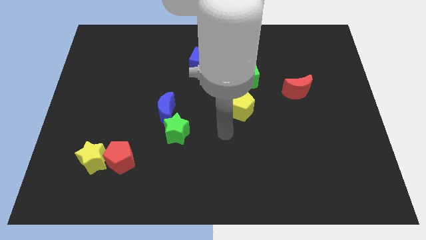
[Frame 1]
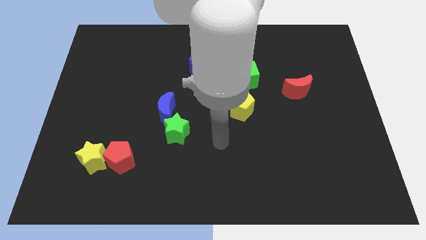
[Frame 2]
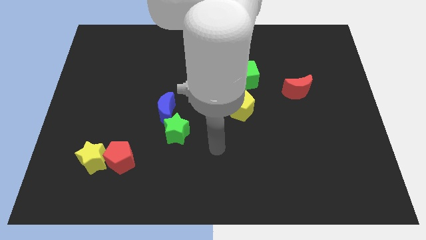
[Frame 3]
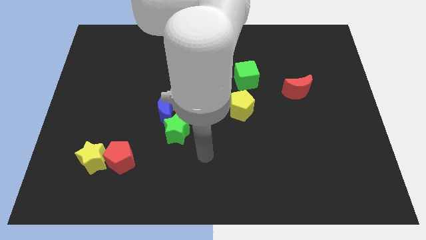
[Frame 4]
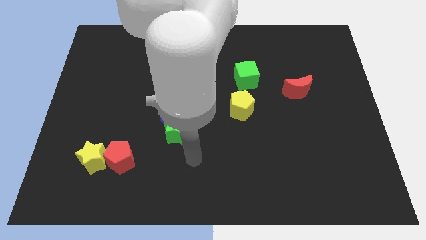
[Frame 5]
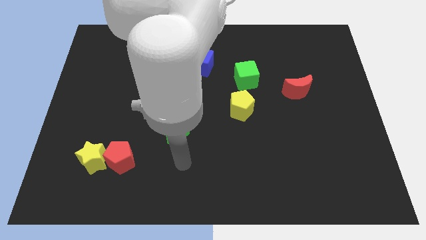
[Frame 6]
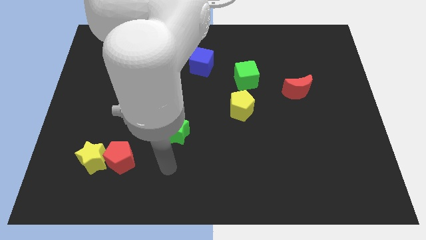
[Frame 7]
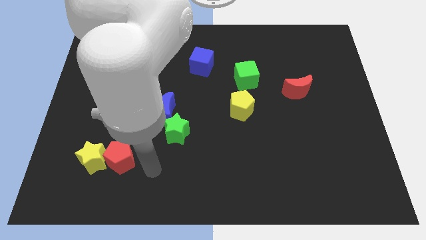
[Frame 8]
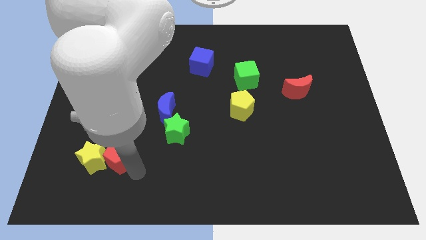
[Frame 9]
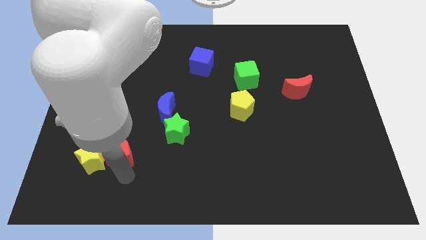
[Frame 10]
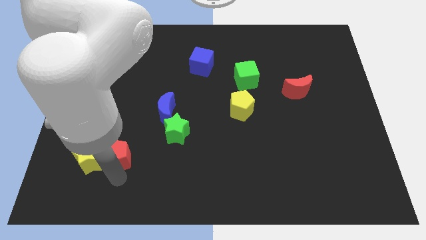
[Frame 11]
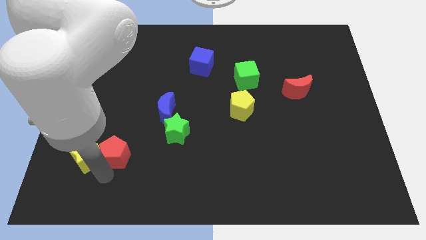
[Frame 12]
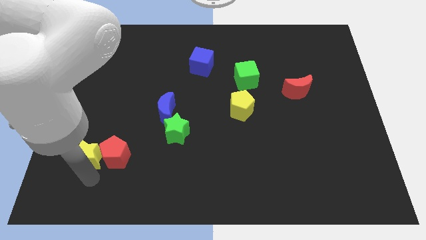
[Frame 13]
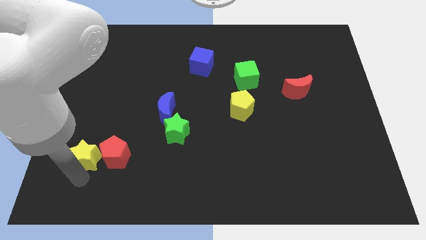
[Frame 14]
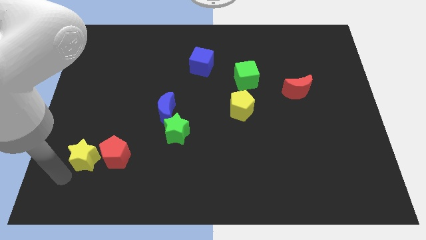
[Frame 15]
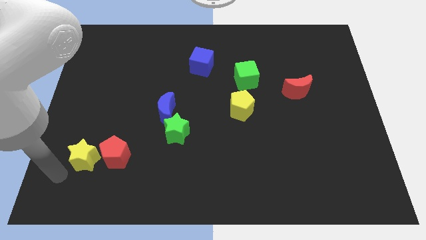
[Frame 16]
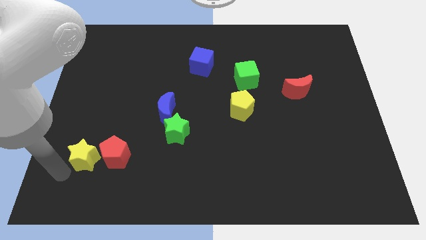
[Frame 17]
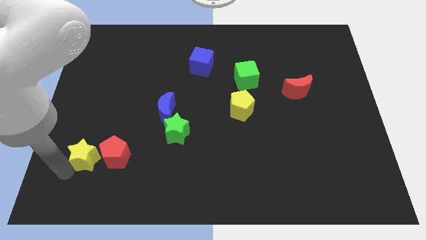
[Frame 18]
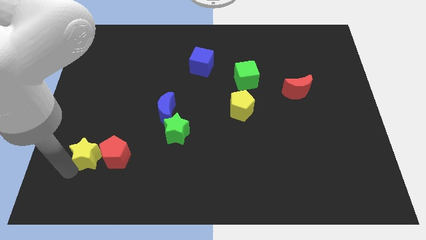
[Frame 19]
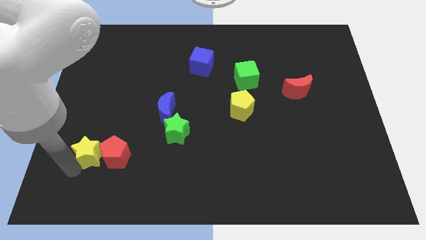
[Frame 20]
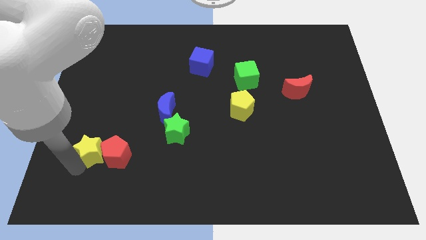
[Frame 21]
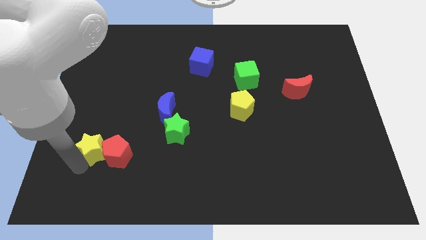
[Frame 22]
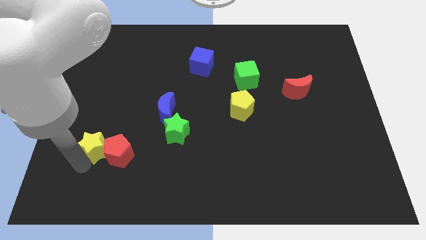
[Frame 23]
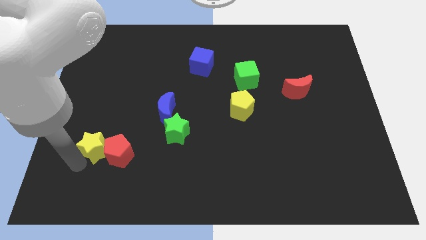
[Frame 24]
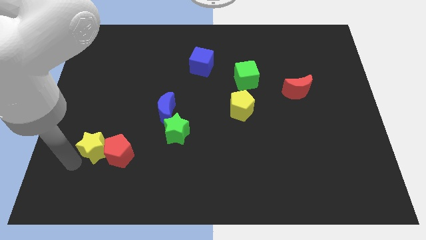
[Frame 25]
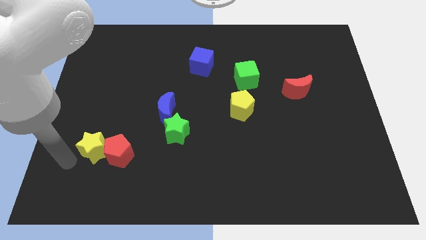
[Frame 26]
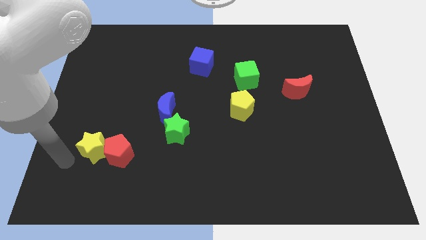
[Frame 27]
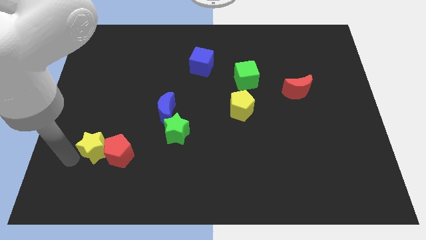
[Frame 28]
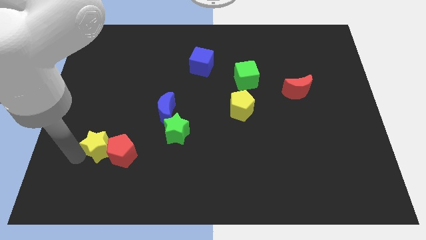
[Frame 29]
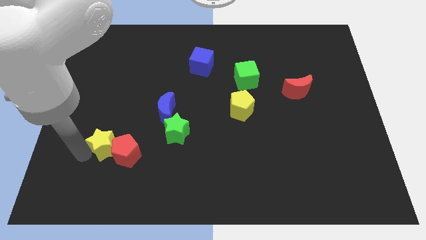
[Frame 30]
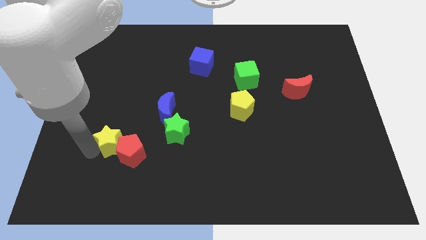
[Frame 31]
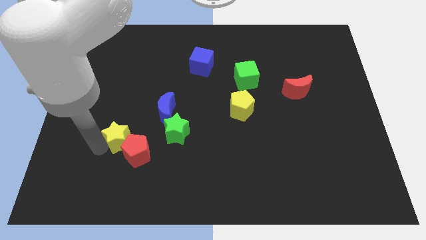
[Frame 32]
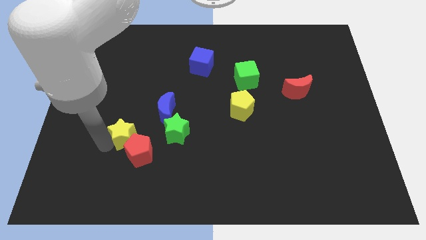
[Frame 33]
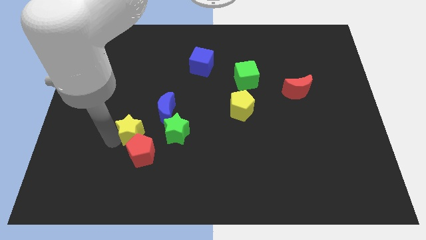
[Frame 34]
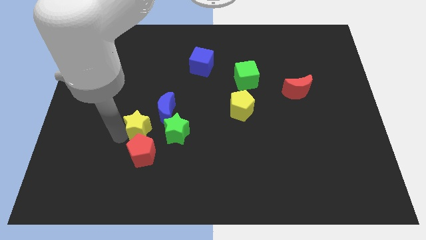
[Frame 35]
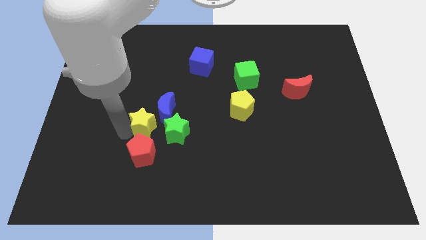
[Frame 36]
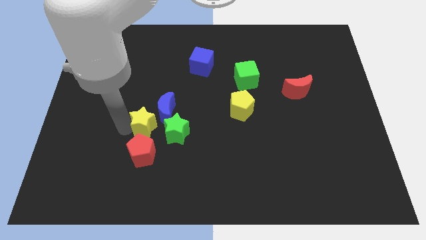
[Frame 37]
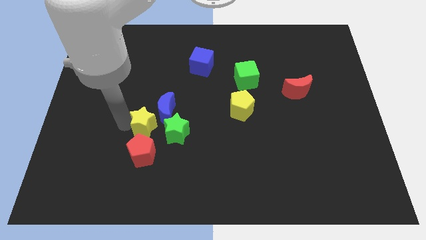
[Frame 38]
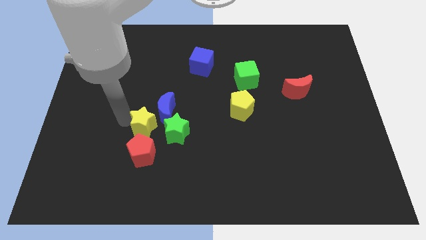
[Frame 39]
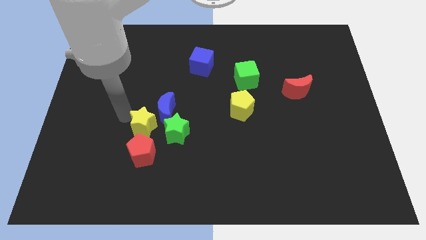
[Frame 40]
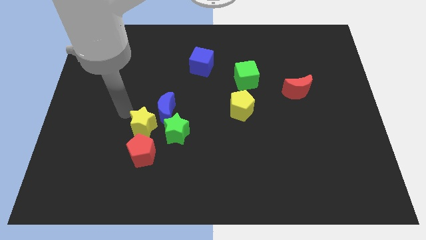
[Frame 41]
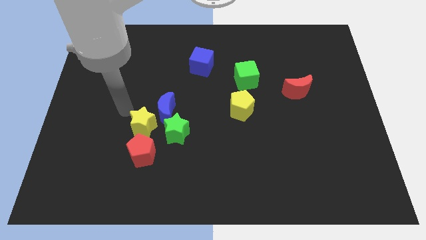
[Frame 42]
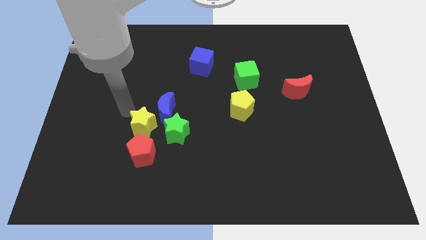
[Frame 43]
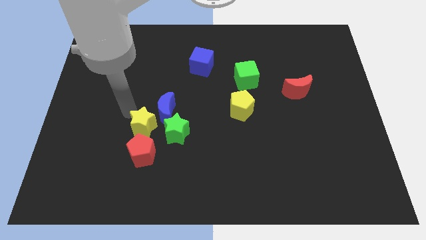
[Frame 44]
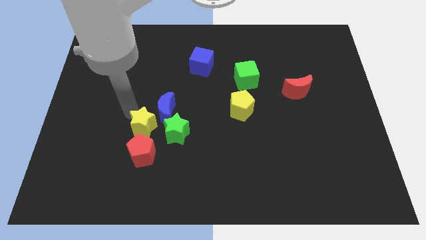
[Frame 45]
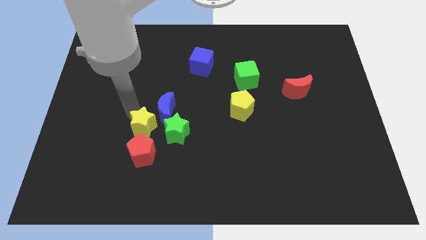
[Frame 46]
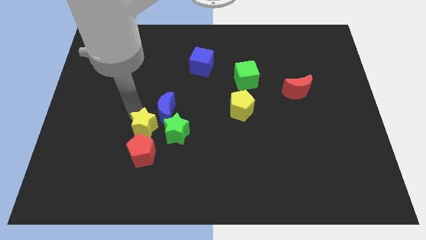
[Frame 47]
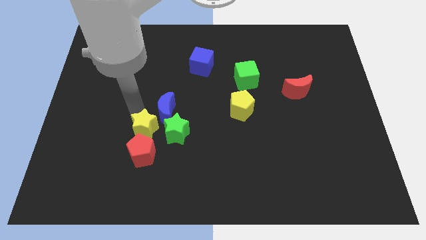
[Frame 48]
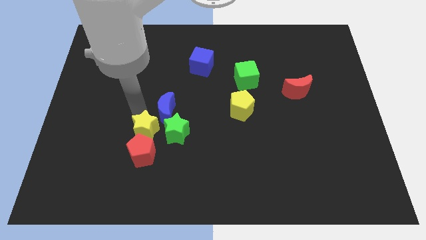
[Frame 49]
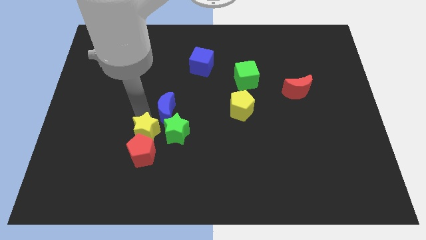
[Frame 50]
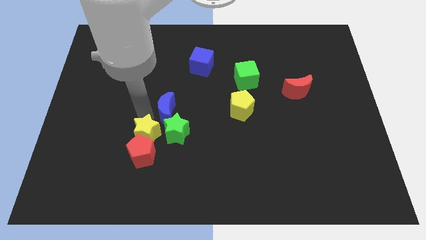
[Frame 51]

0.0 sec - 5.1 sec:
slide the yellow star next to the green star

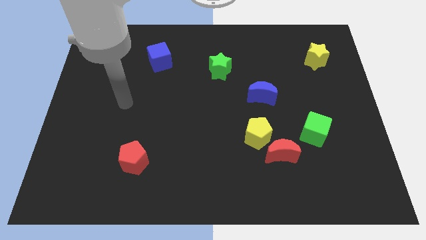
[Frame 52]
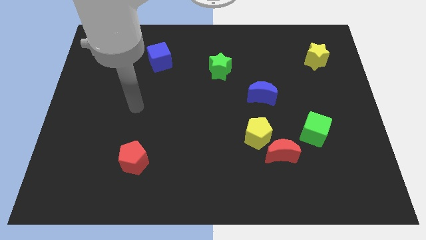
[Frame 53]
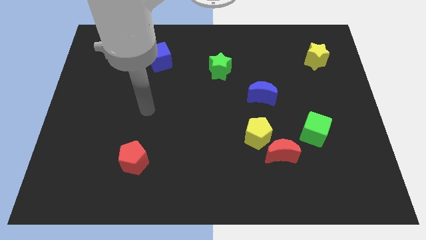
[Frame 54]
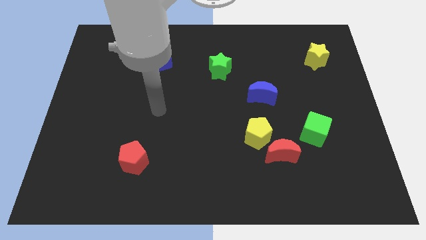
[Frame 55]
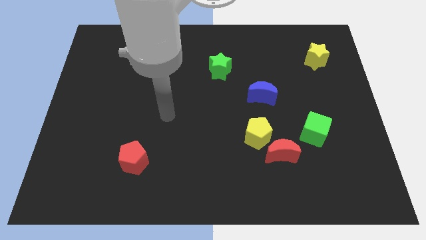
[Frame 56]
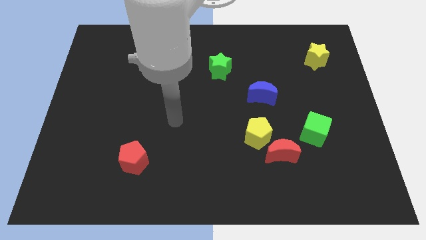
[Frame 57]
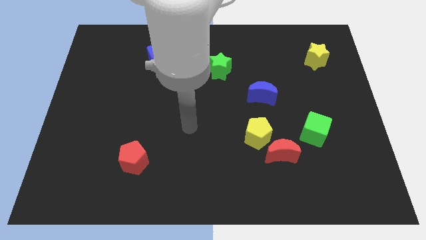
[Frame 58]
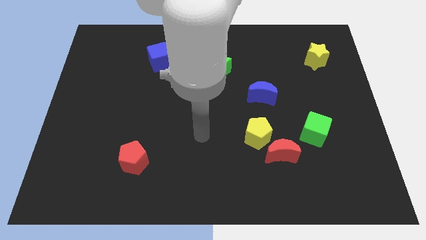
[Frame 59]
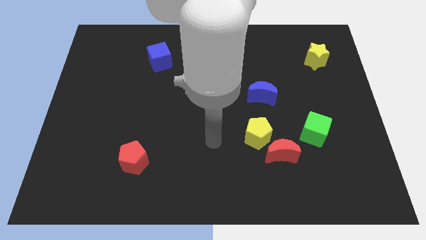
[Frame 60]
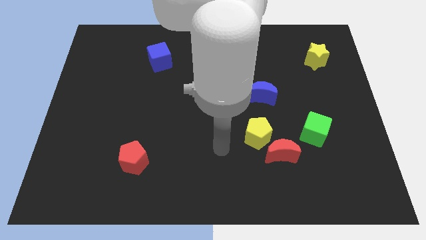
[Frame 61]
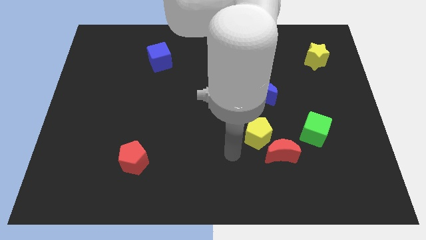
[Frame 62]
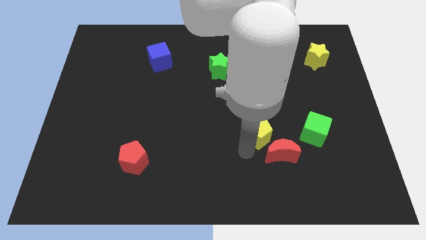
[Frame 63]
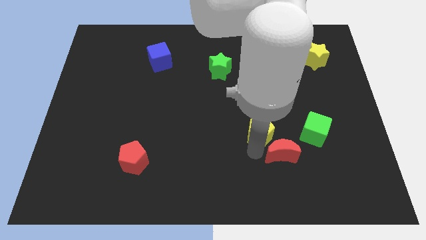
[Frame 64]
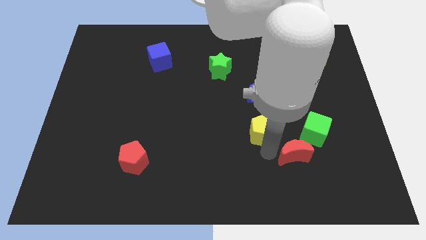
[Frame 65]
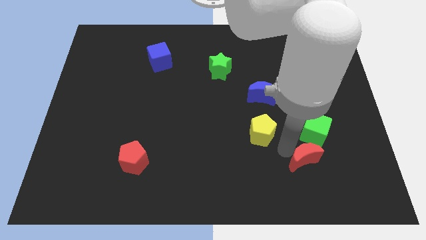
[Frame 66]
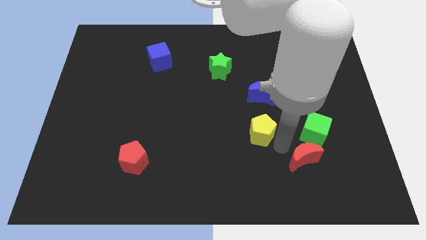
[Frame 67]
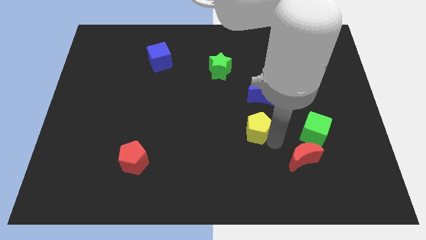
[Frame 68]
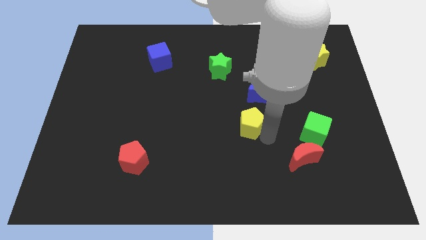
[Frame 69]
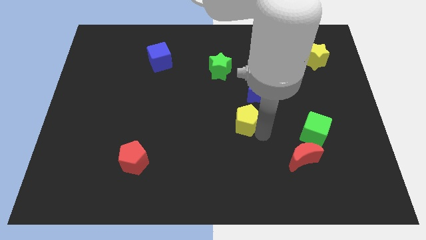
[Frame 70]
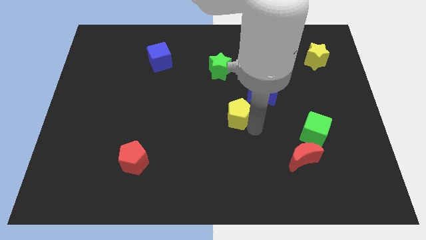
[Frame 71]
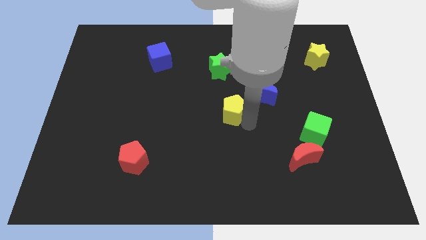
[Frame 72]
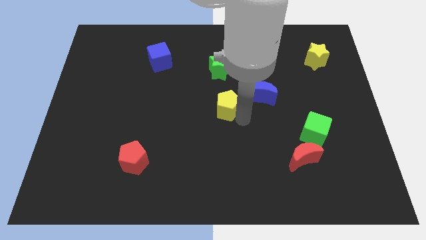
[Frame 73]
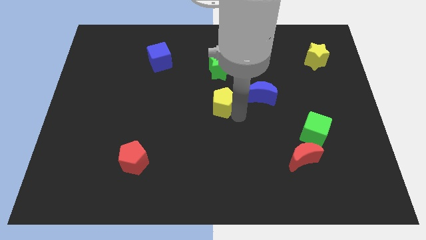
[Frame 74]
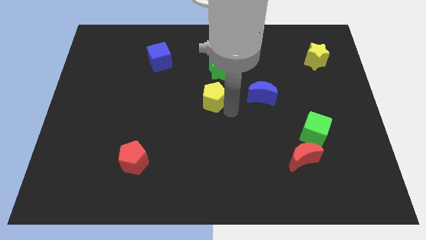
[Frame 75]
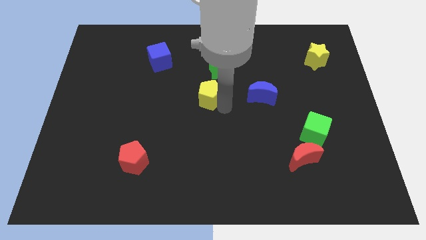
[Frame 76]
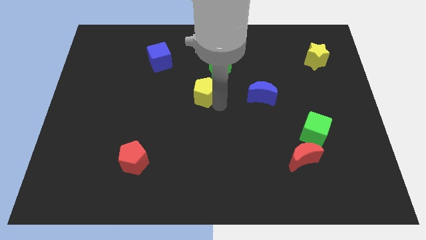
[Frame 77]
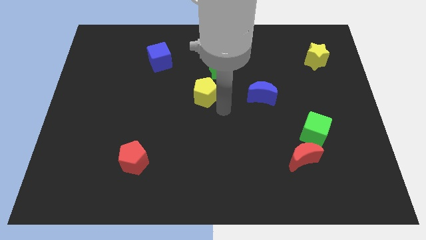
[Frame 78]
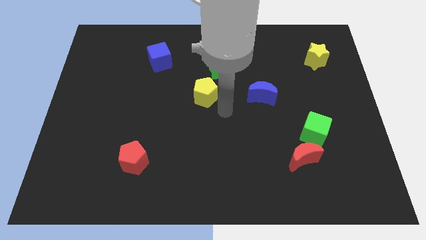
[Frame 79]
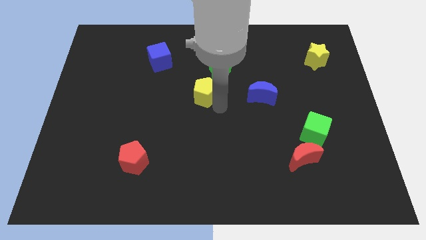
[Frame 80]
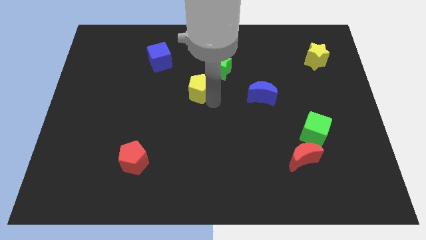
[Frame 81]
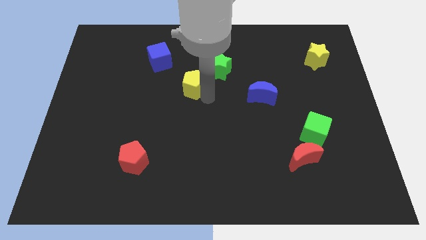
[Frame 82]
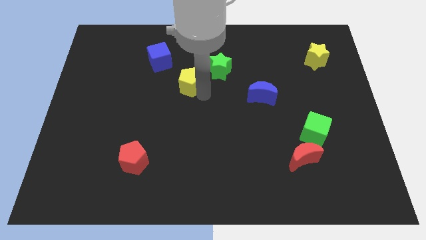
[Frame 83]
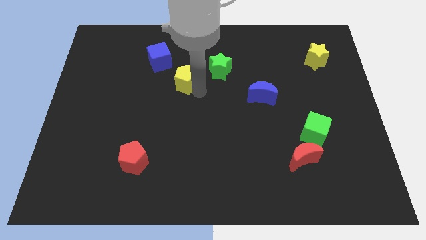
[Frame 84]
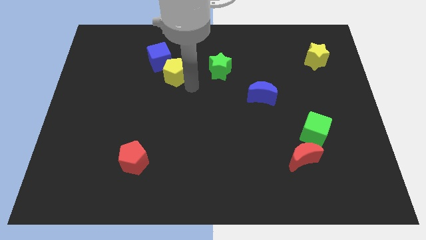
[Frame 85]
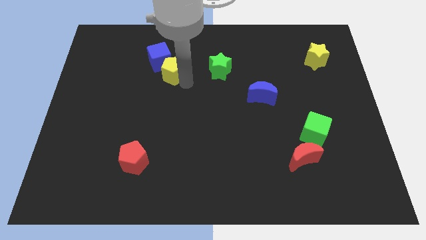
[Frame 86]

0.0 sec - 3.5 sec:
slide the yellow pentagon to the blue cube
